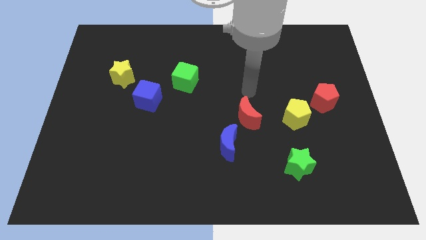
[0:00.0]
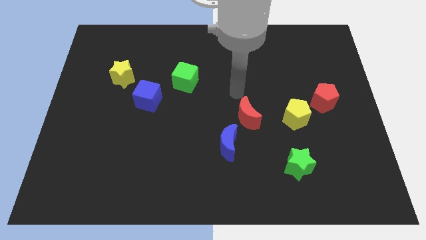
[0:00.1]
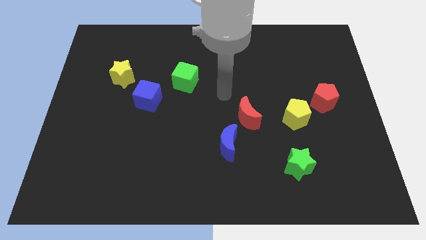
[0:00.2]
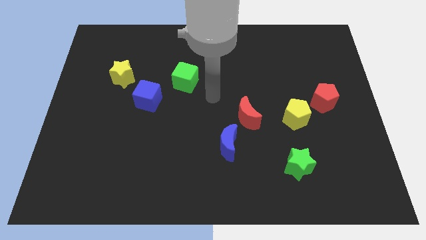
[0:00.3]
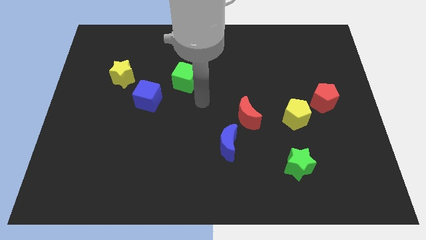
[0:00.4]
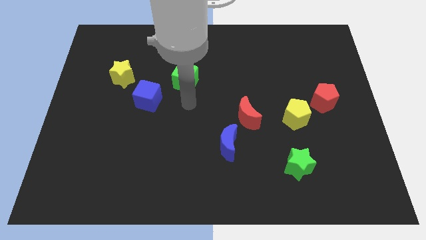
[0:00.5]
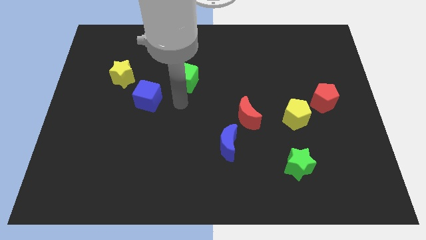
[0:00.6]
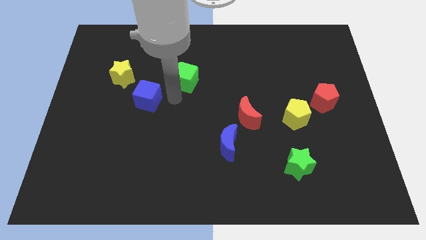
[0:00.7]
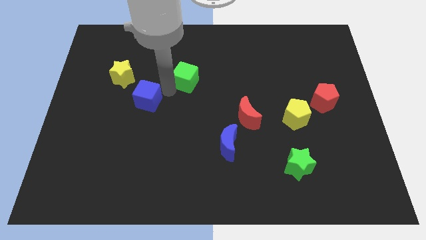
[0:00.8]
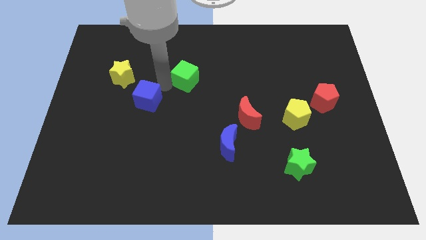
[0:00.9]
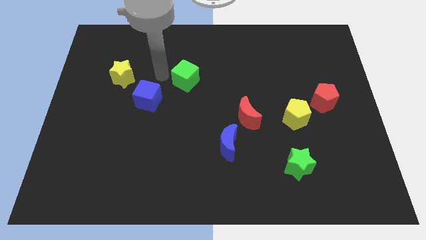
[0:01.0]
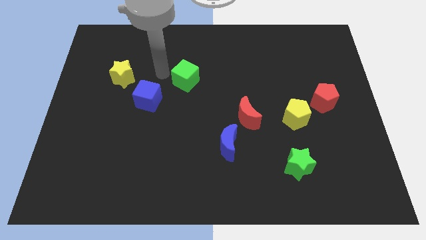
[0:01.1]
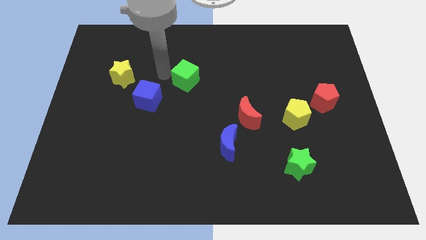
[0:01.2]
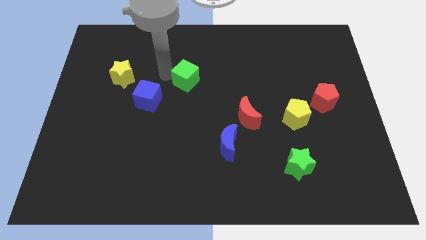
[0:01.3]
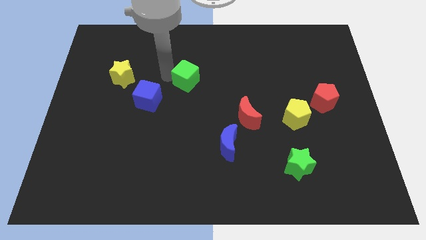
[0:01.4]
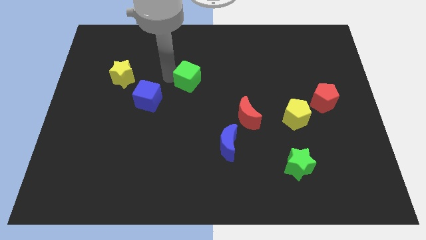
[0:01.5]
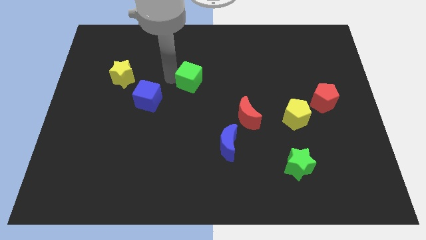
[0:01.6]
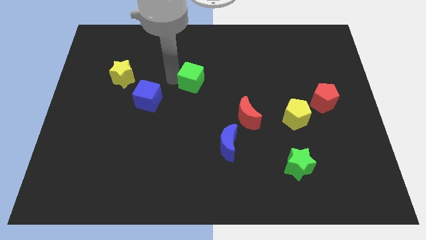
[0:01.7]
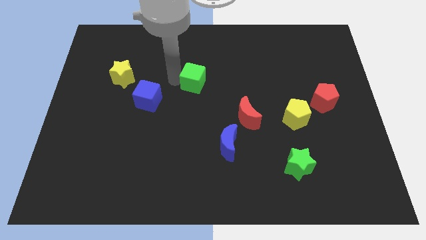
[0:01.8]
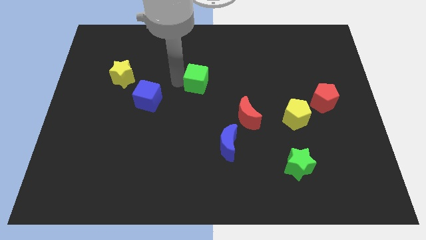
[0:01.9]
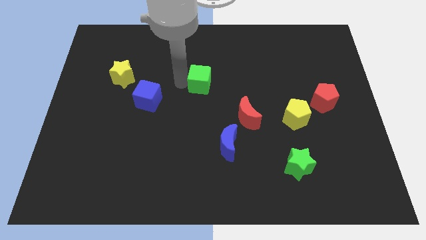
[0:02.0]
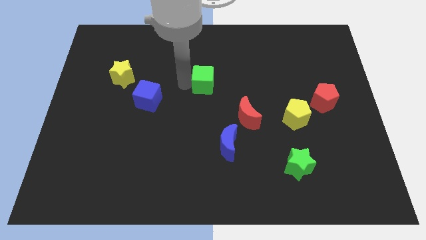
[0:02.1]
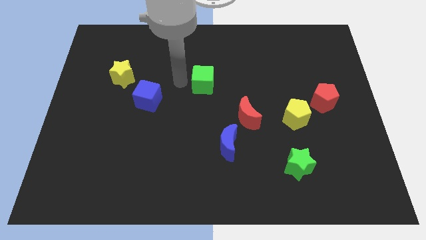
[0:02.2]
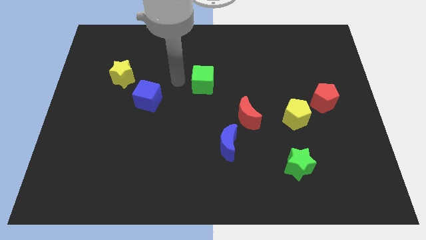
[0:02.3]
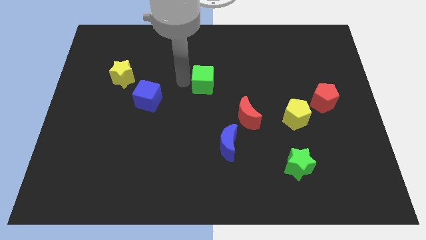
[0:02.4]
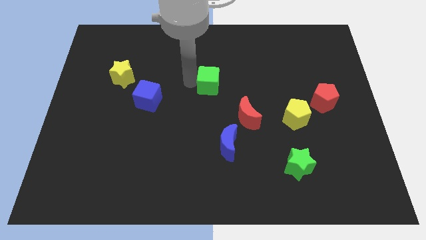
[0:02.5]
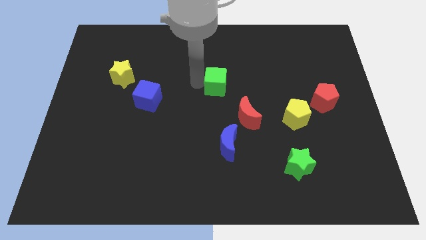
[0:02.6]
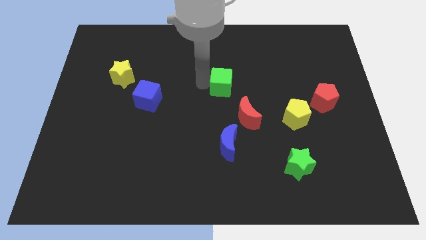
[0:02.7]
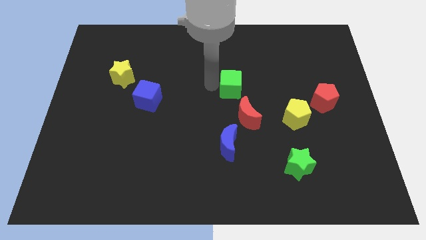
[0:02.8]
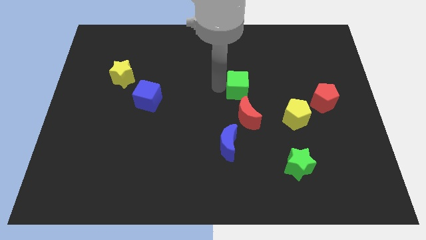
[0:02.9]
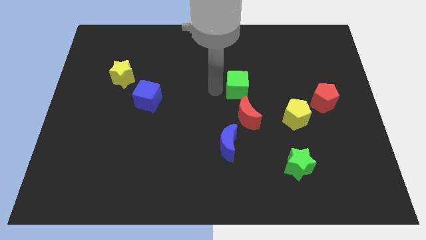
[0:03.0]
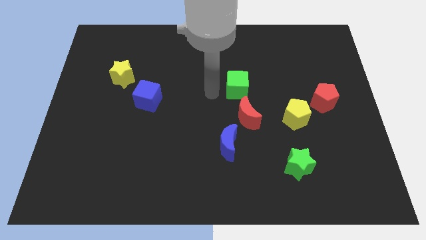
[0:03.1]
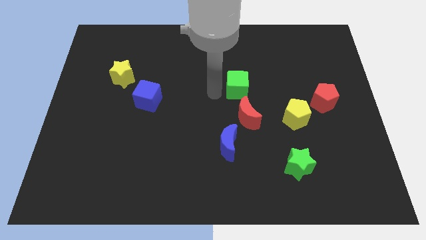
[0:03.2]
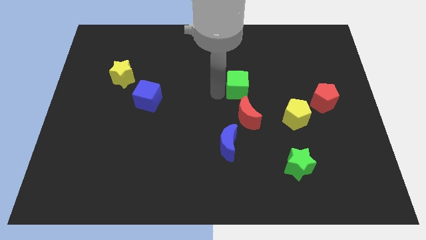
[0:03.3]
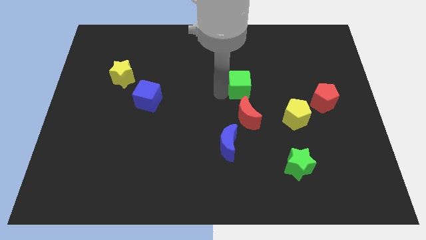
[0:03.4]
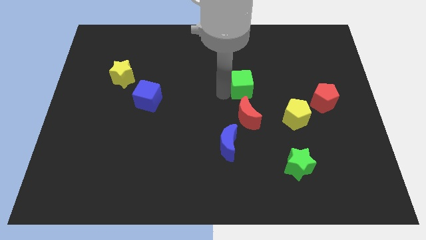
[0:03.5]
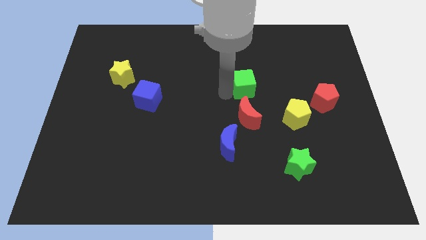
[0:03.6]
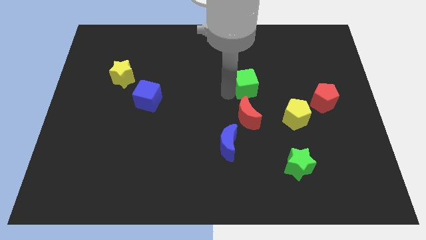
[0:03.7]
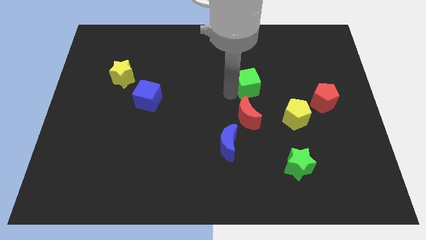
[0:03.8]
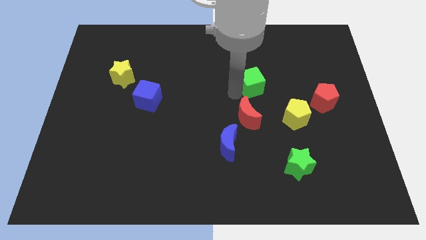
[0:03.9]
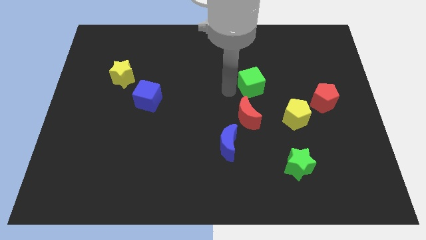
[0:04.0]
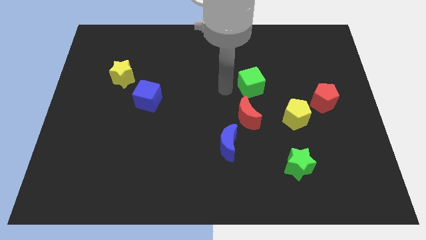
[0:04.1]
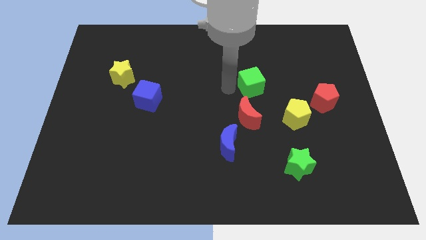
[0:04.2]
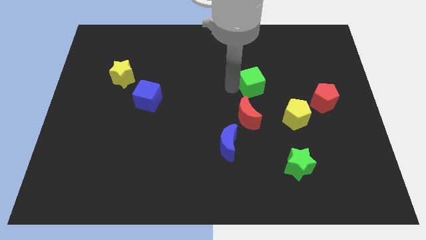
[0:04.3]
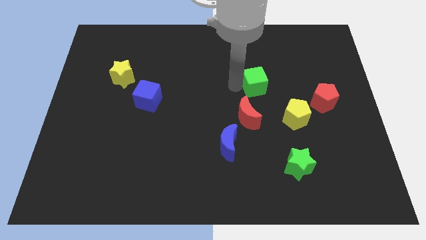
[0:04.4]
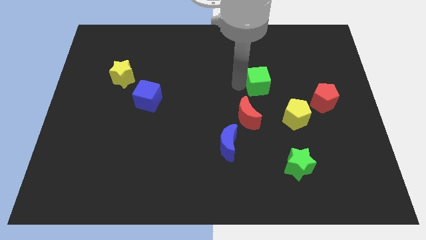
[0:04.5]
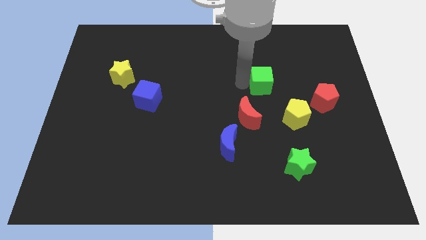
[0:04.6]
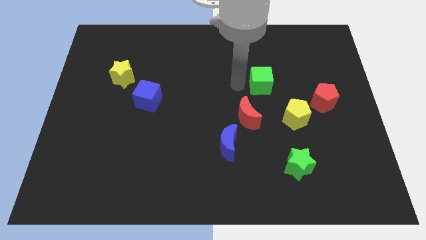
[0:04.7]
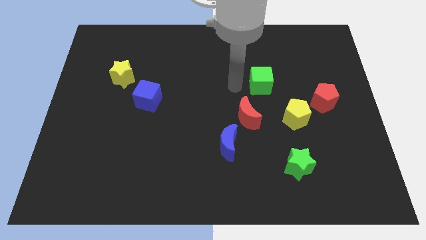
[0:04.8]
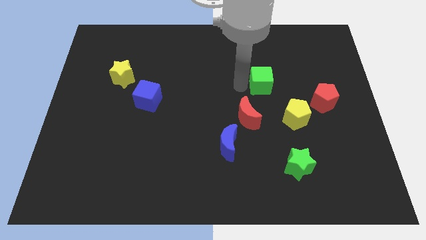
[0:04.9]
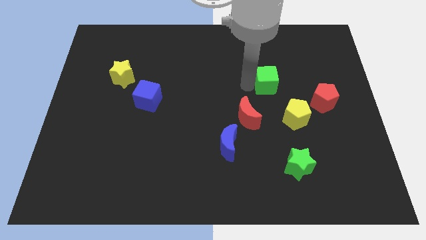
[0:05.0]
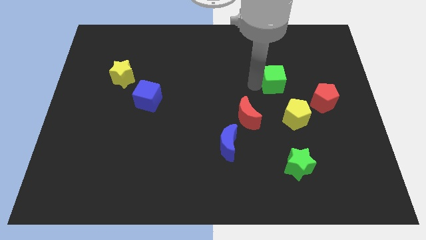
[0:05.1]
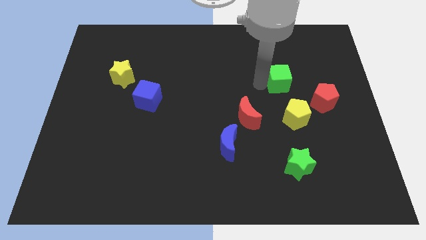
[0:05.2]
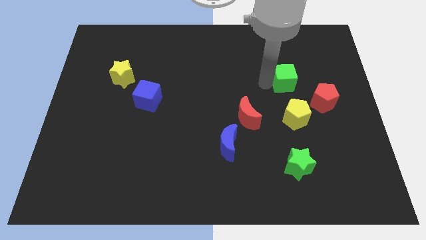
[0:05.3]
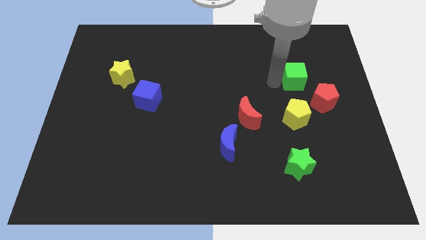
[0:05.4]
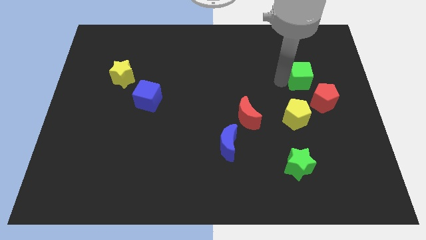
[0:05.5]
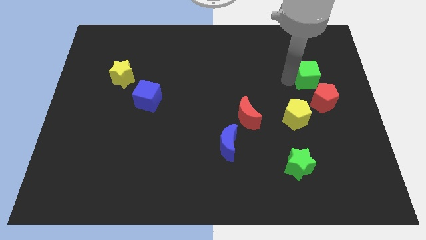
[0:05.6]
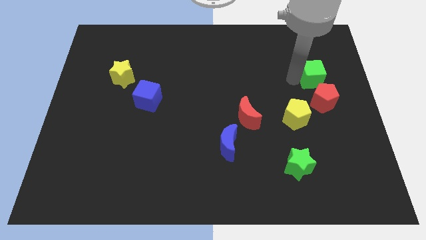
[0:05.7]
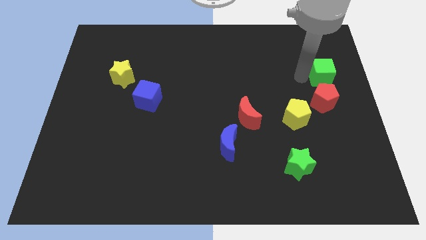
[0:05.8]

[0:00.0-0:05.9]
put the green cube to the right side

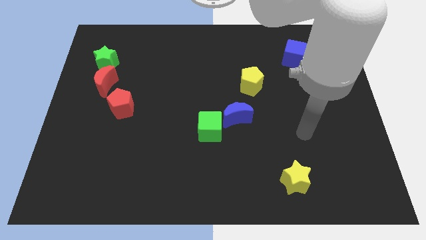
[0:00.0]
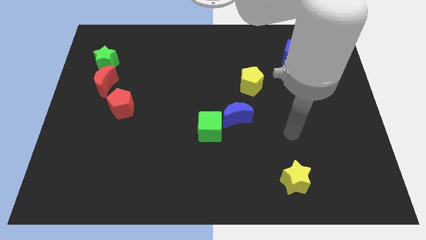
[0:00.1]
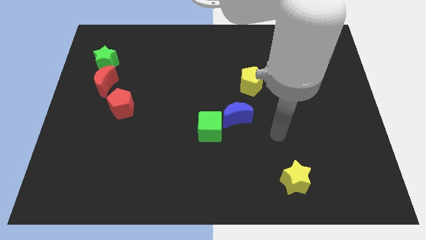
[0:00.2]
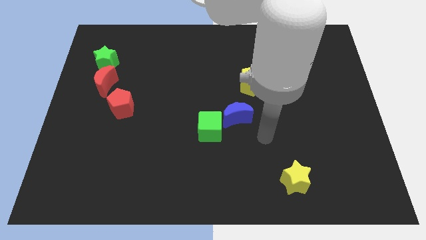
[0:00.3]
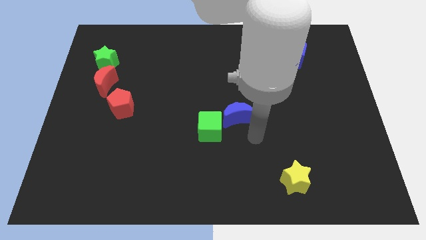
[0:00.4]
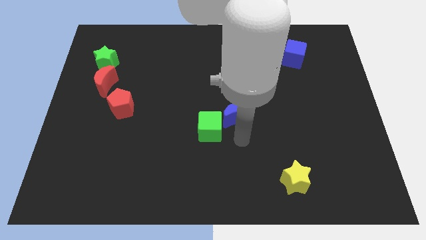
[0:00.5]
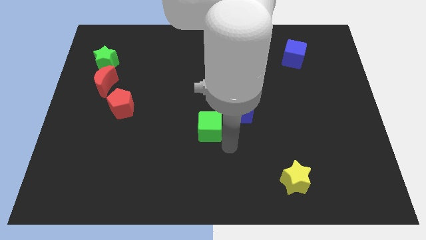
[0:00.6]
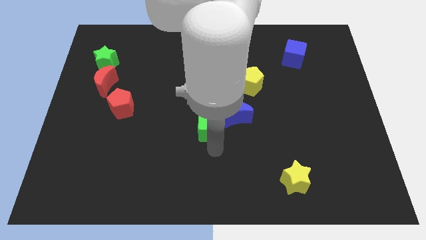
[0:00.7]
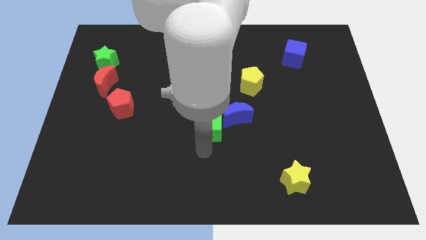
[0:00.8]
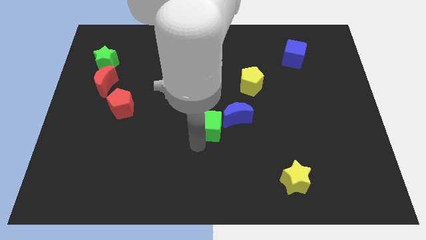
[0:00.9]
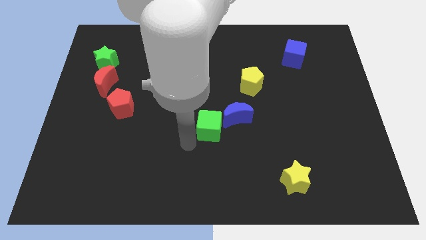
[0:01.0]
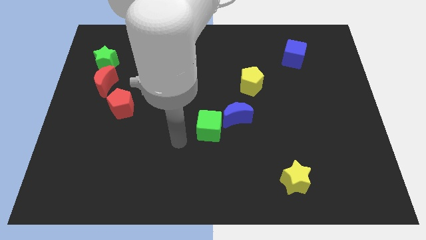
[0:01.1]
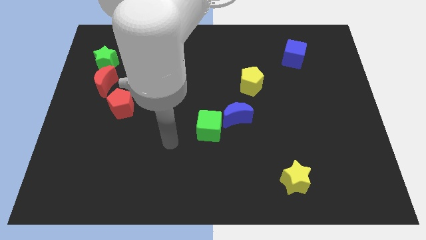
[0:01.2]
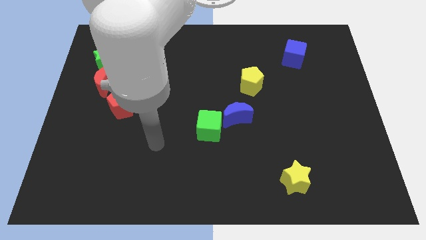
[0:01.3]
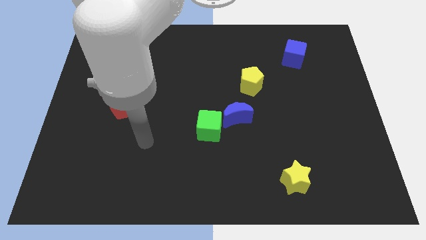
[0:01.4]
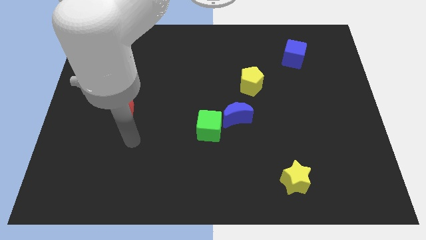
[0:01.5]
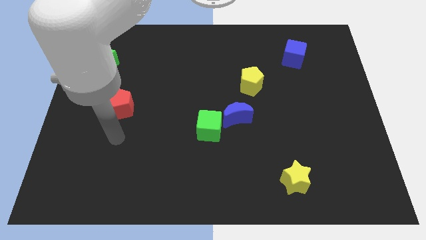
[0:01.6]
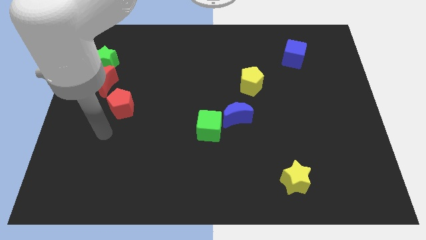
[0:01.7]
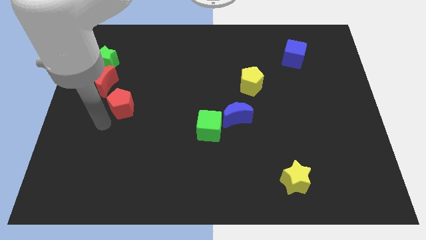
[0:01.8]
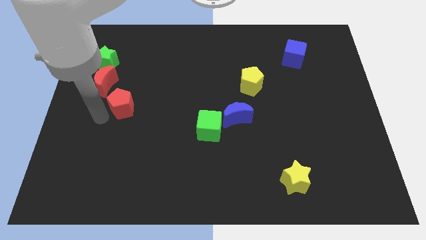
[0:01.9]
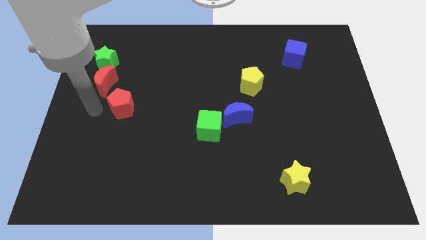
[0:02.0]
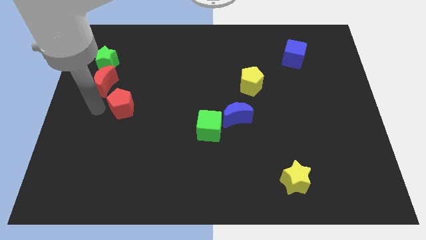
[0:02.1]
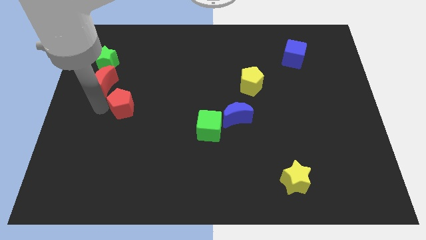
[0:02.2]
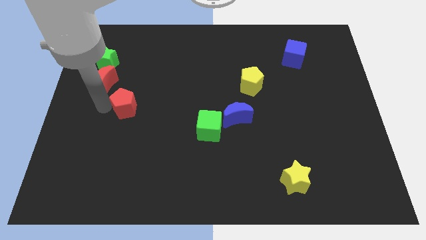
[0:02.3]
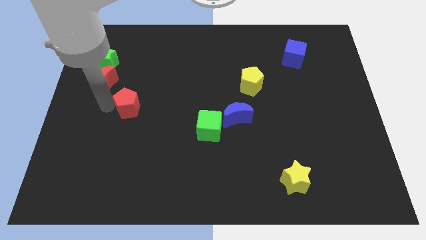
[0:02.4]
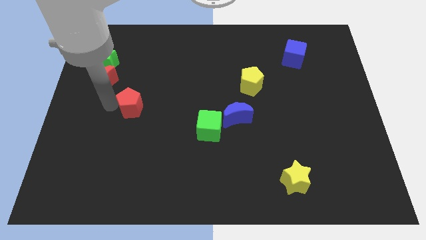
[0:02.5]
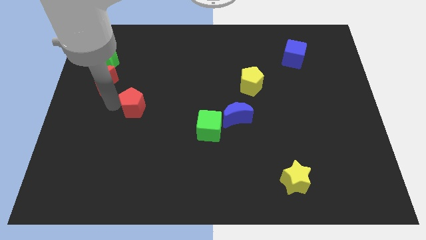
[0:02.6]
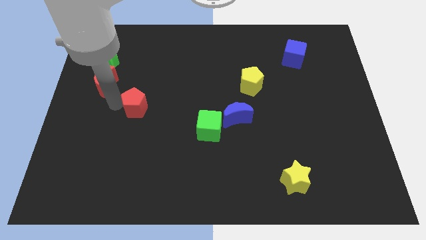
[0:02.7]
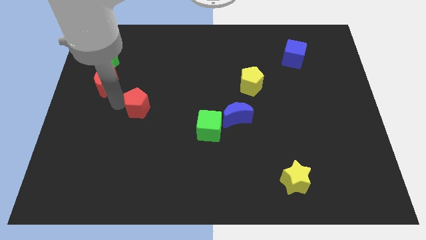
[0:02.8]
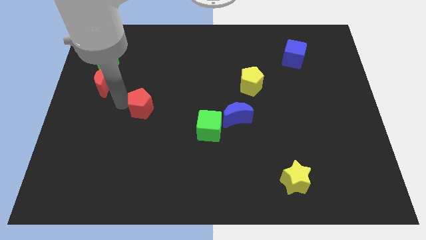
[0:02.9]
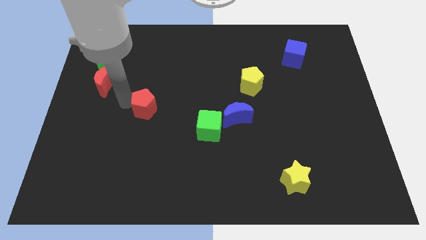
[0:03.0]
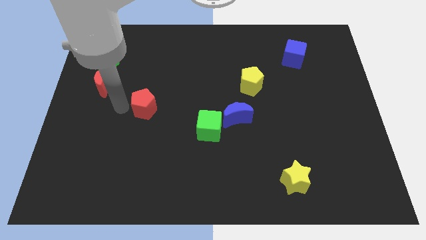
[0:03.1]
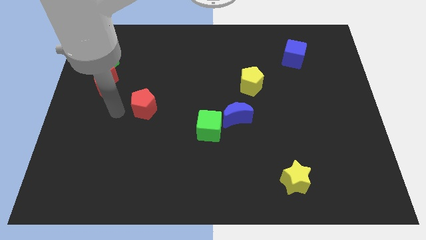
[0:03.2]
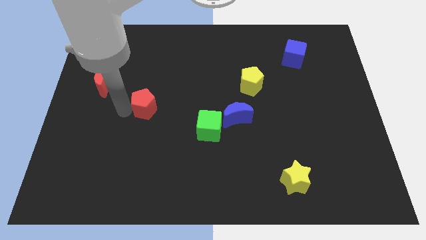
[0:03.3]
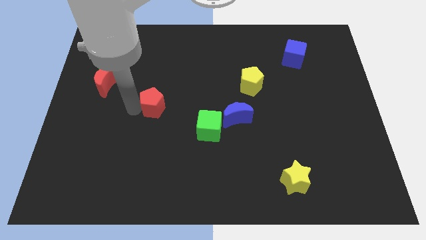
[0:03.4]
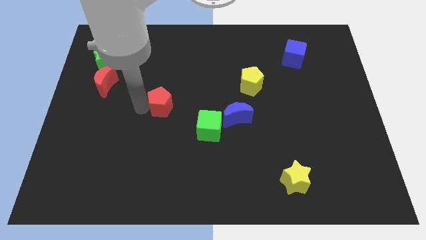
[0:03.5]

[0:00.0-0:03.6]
put the red pentagon to the center
